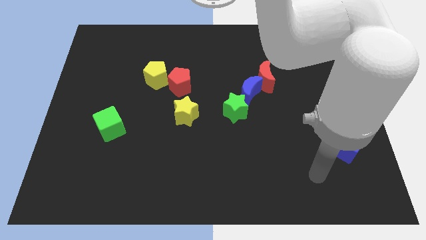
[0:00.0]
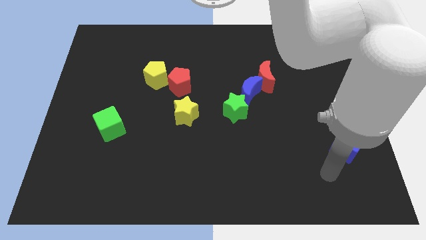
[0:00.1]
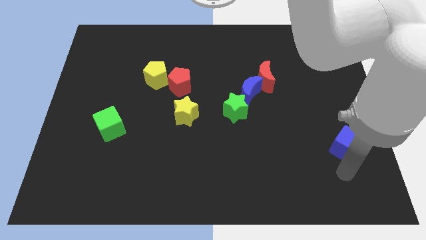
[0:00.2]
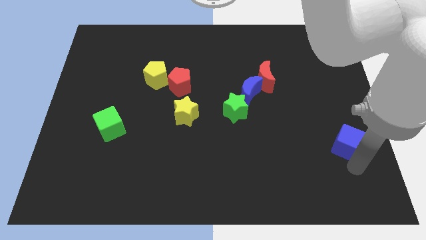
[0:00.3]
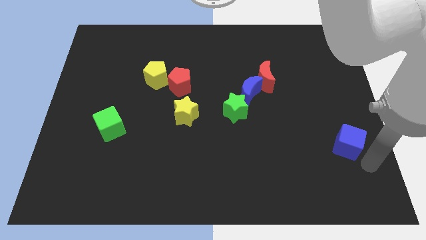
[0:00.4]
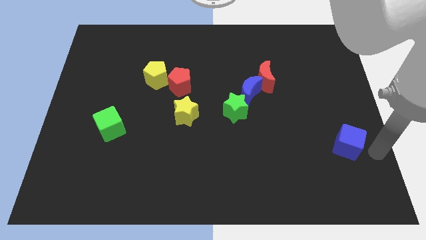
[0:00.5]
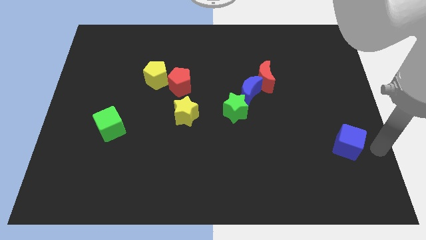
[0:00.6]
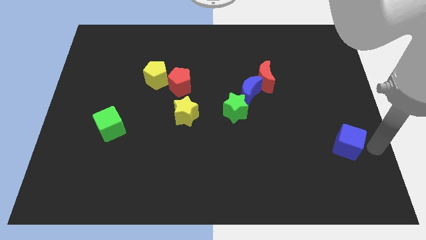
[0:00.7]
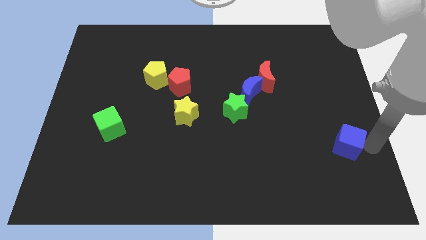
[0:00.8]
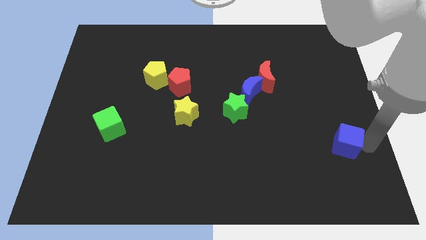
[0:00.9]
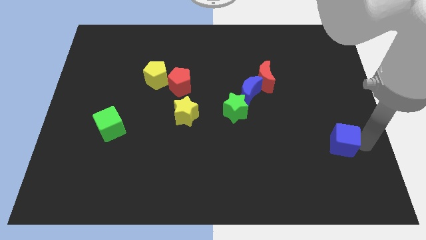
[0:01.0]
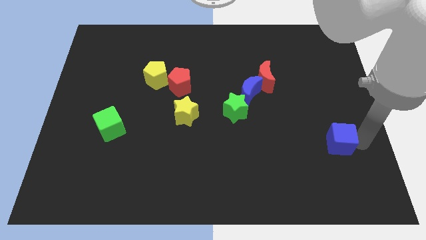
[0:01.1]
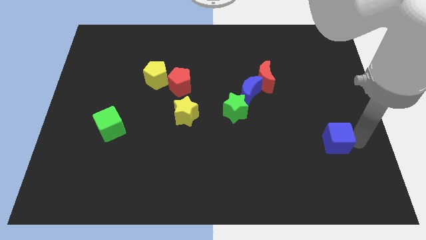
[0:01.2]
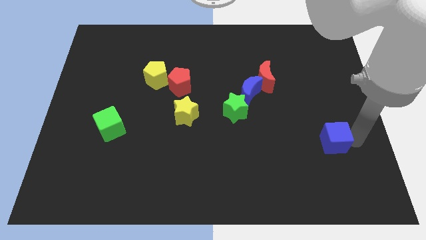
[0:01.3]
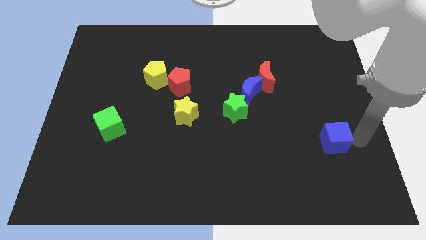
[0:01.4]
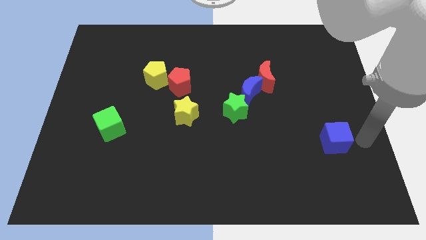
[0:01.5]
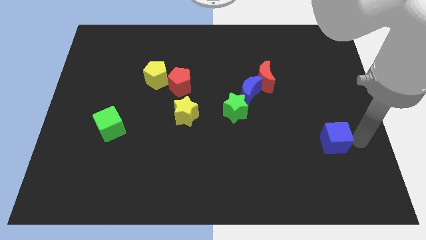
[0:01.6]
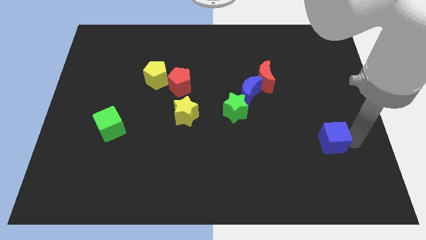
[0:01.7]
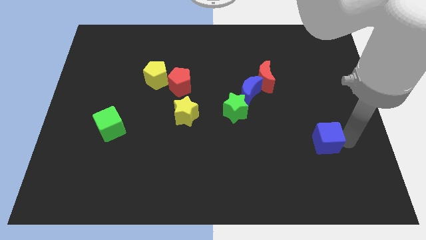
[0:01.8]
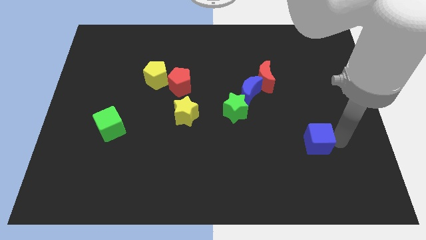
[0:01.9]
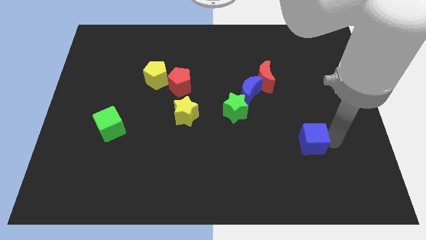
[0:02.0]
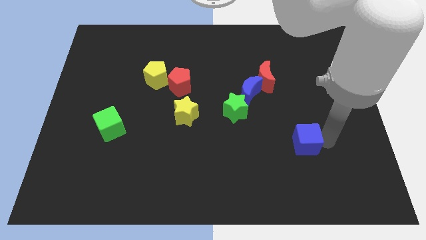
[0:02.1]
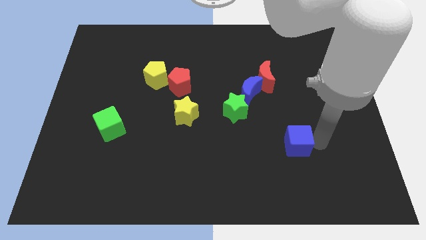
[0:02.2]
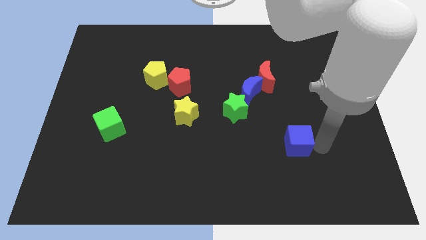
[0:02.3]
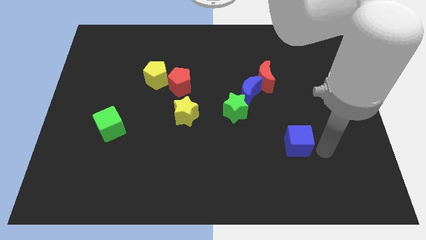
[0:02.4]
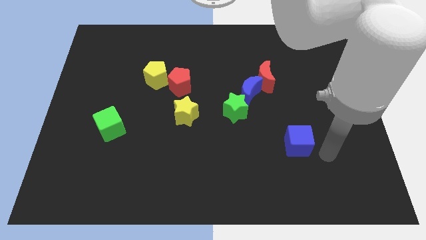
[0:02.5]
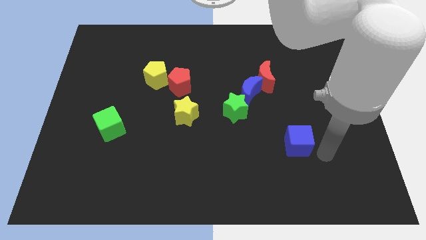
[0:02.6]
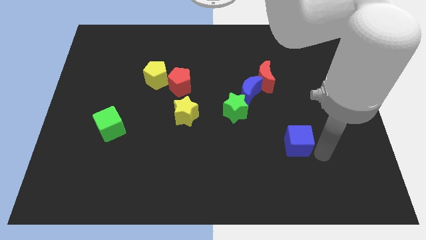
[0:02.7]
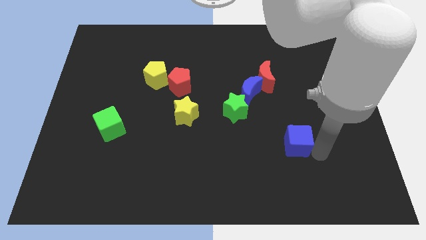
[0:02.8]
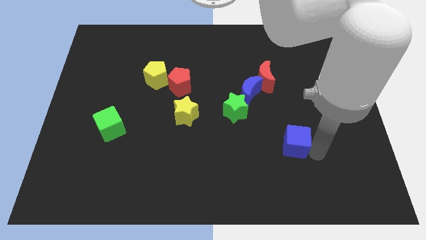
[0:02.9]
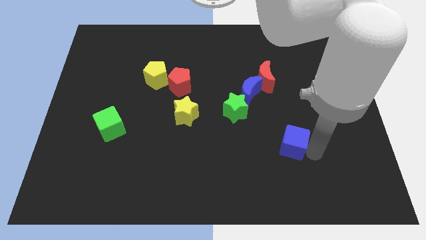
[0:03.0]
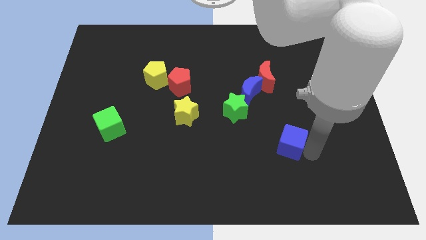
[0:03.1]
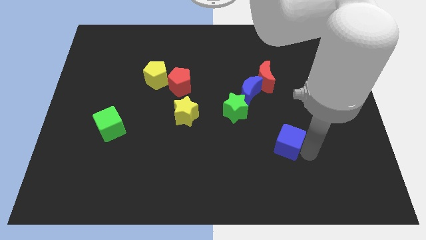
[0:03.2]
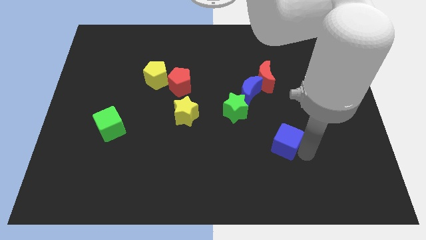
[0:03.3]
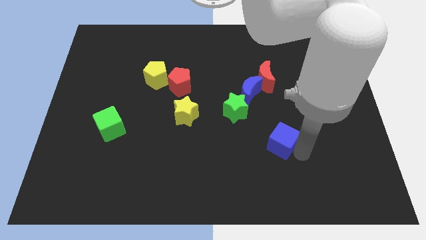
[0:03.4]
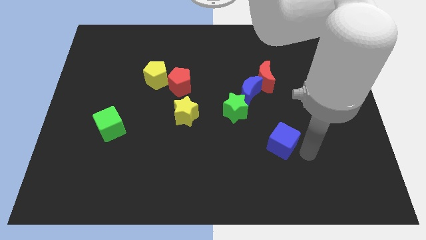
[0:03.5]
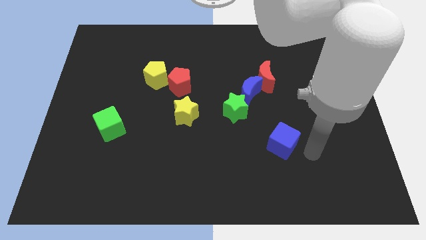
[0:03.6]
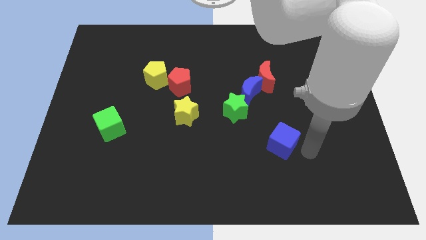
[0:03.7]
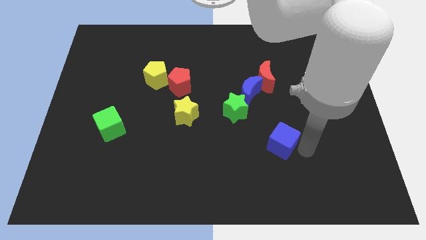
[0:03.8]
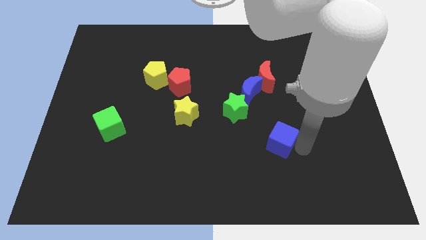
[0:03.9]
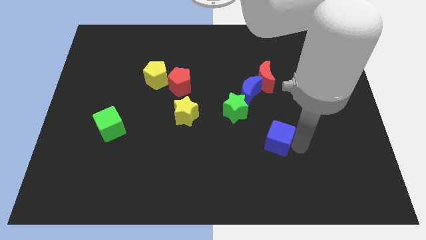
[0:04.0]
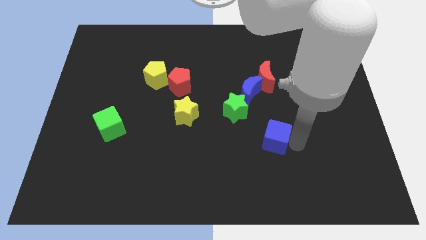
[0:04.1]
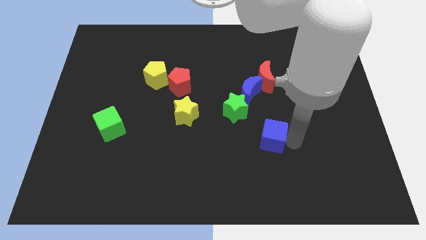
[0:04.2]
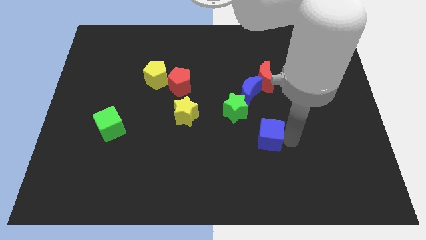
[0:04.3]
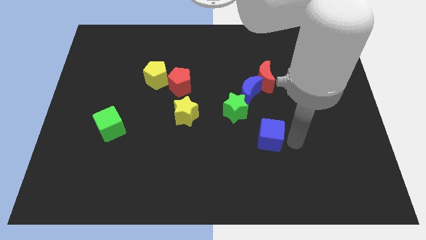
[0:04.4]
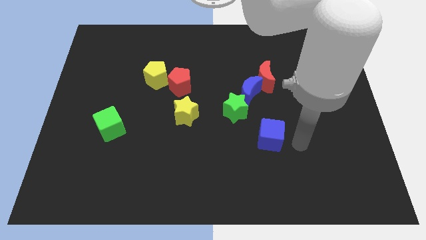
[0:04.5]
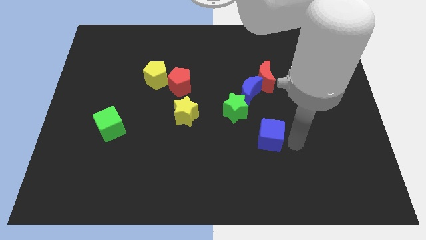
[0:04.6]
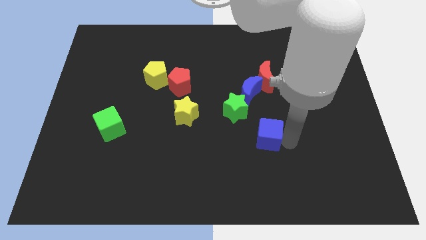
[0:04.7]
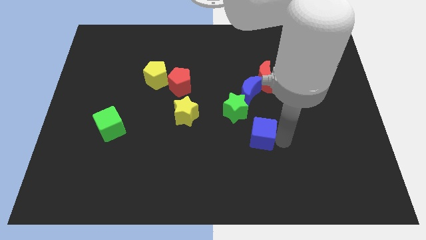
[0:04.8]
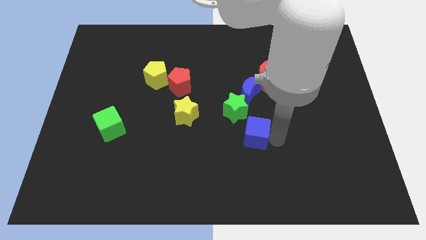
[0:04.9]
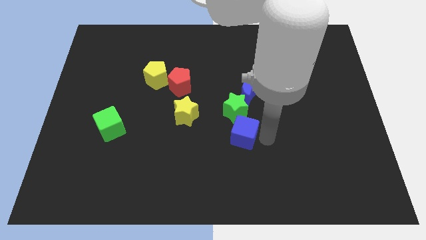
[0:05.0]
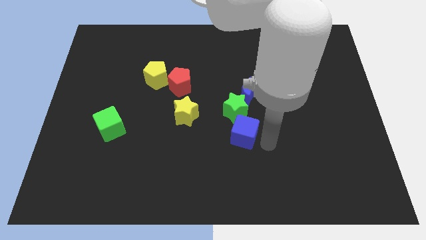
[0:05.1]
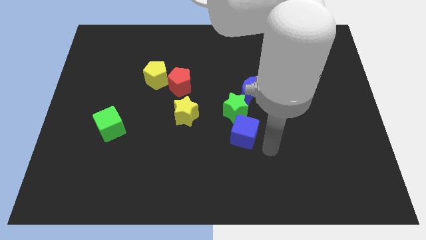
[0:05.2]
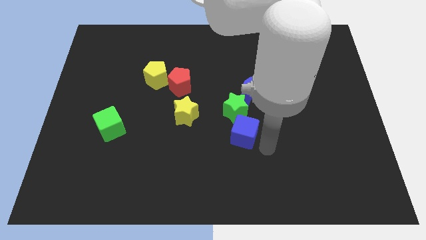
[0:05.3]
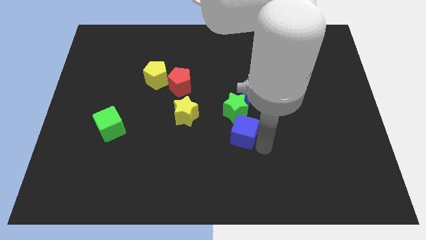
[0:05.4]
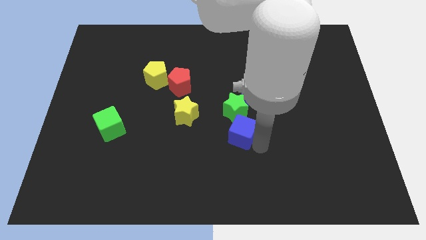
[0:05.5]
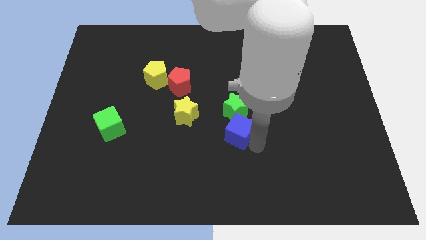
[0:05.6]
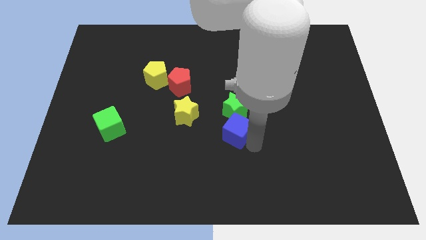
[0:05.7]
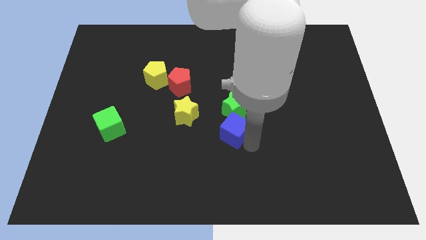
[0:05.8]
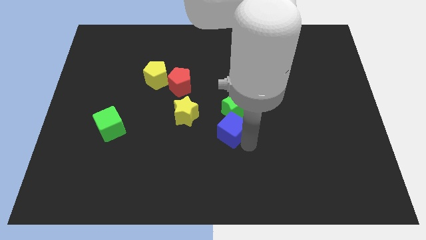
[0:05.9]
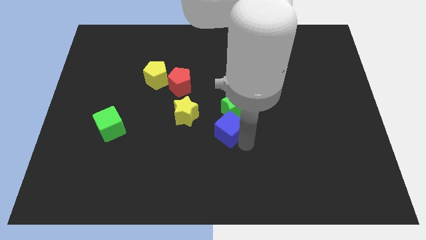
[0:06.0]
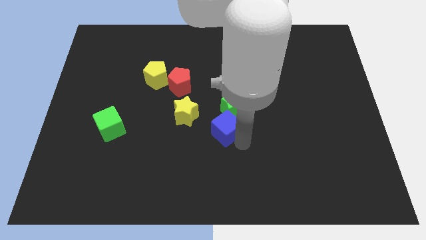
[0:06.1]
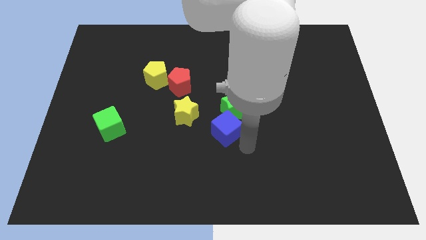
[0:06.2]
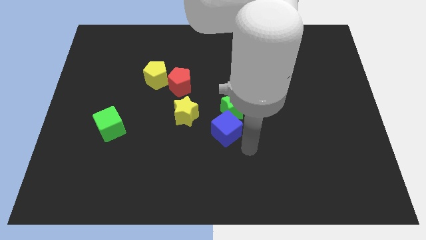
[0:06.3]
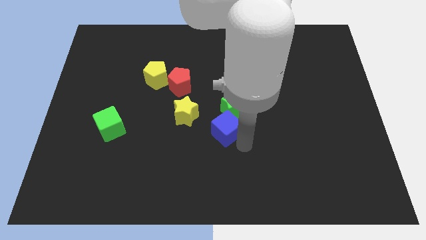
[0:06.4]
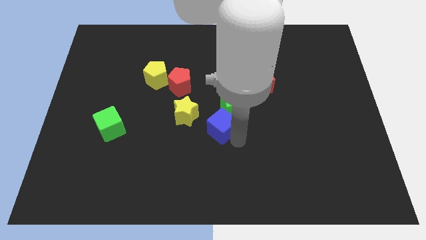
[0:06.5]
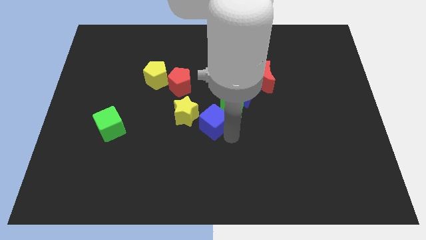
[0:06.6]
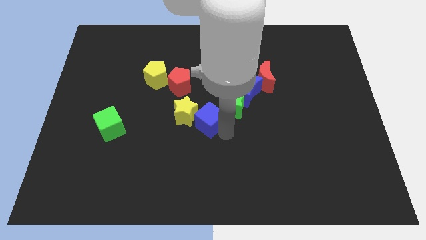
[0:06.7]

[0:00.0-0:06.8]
put the blue cube to the yellow star
